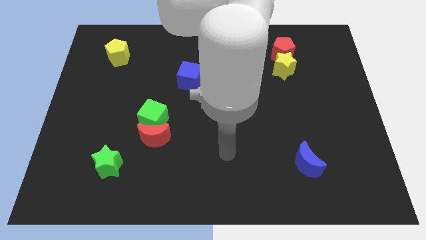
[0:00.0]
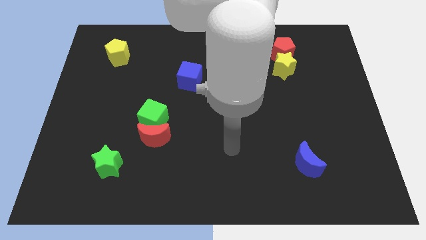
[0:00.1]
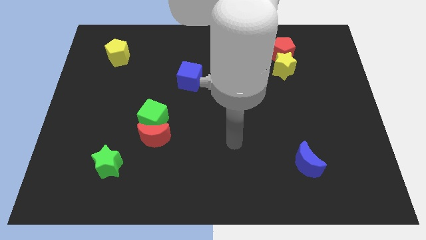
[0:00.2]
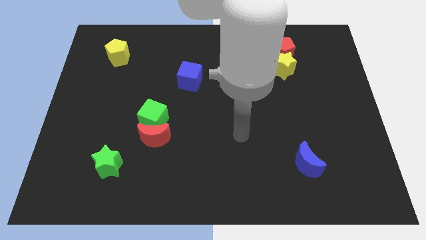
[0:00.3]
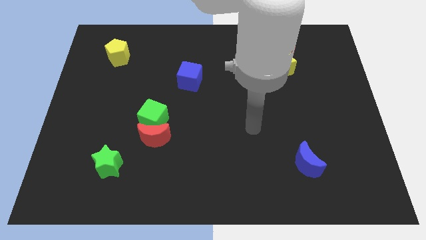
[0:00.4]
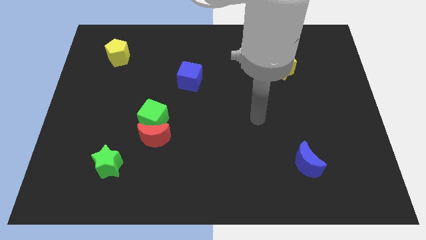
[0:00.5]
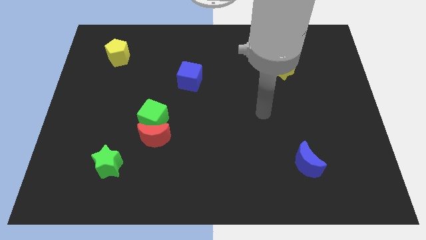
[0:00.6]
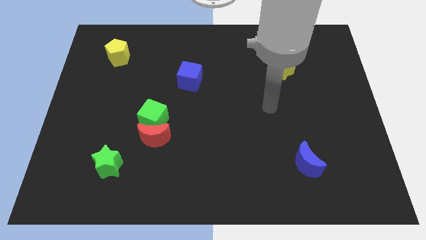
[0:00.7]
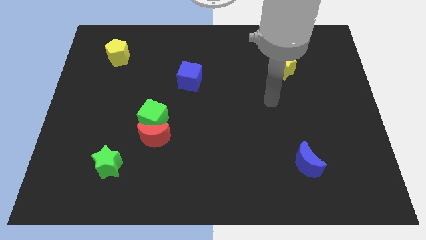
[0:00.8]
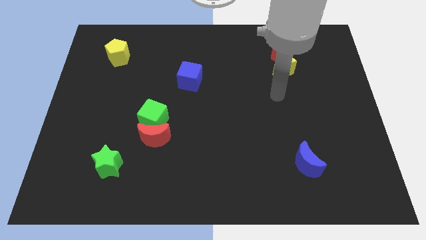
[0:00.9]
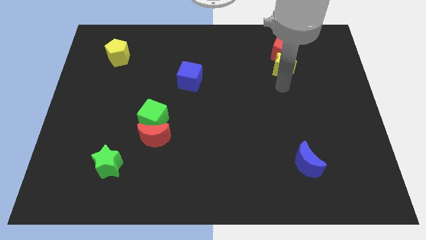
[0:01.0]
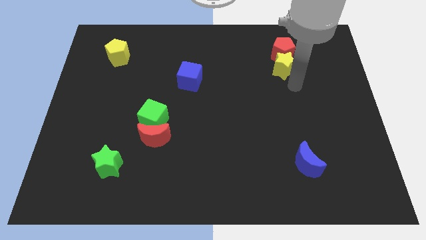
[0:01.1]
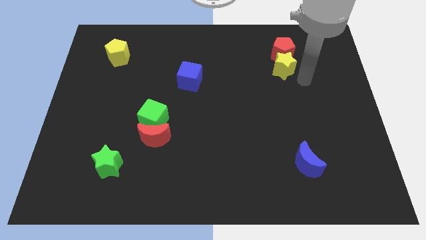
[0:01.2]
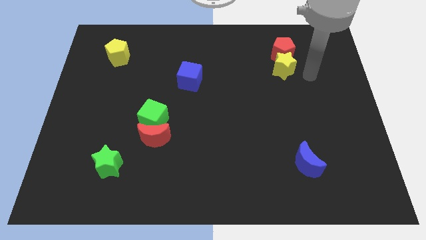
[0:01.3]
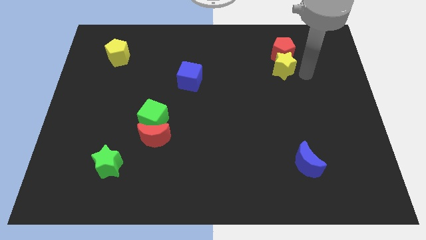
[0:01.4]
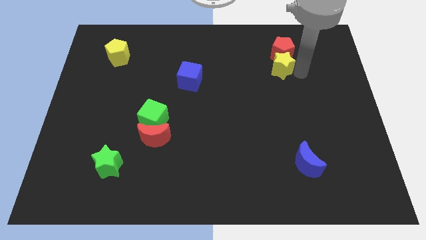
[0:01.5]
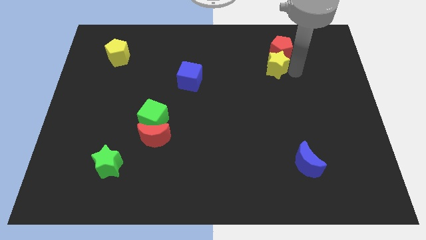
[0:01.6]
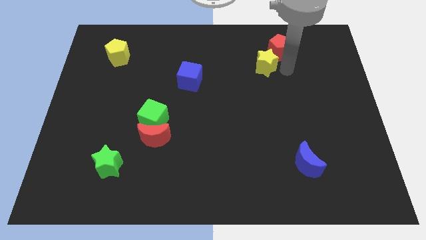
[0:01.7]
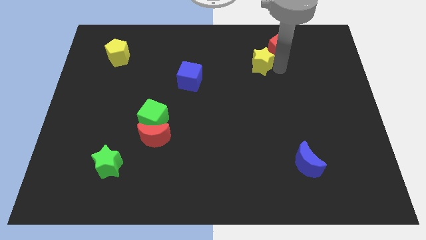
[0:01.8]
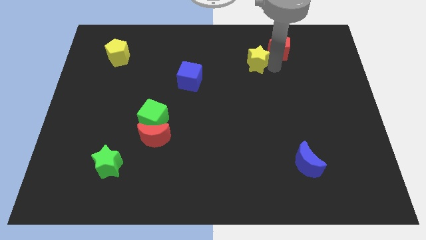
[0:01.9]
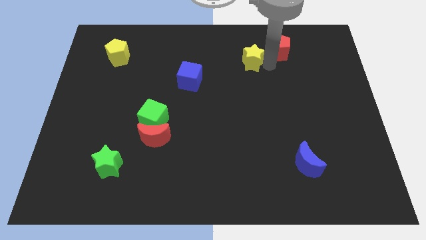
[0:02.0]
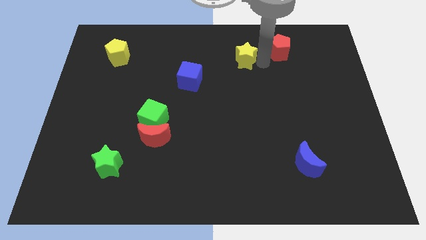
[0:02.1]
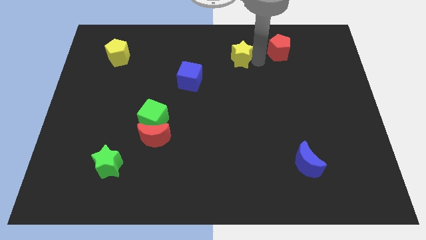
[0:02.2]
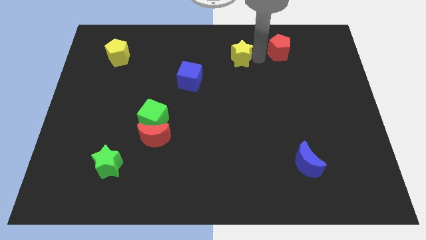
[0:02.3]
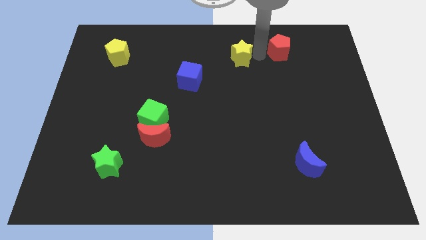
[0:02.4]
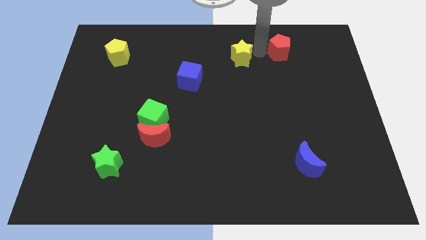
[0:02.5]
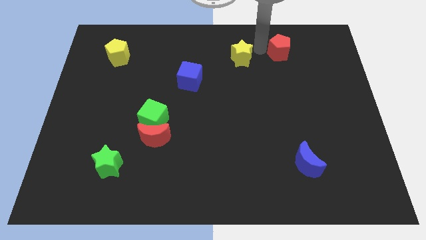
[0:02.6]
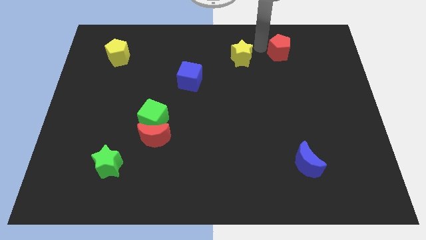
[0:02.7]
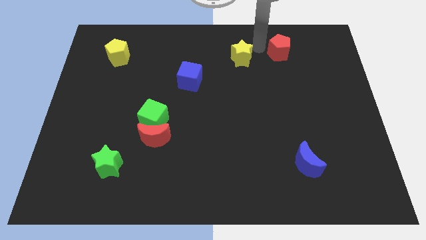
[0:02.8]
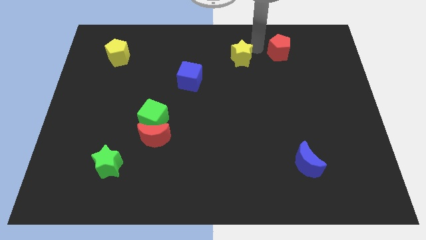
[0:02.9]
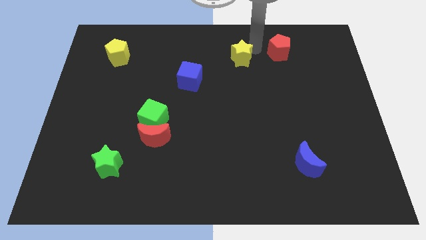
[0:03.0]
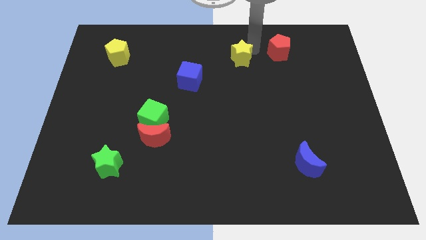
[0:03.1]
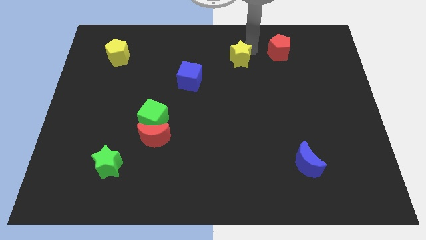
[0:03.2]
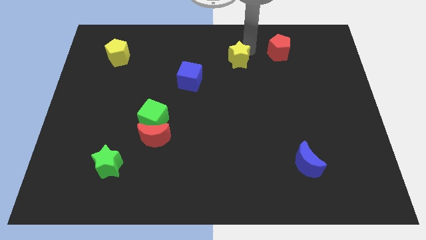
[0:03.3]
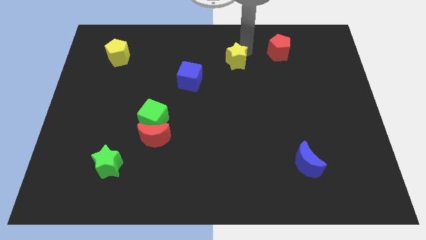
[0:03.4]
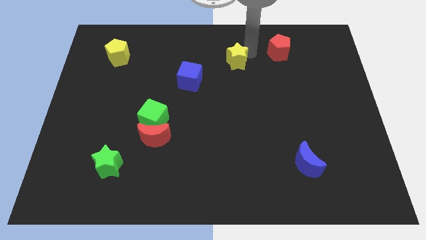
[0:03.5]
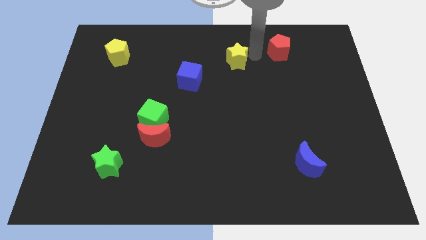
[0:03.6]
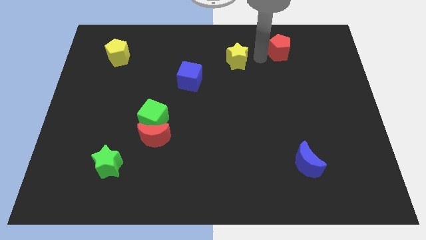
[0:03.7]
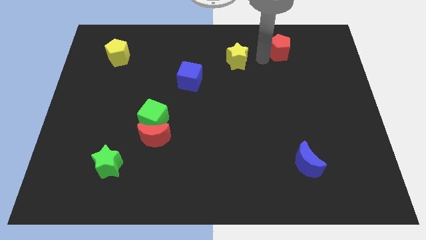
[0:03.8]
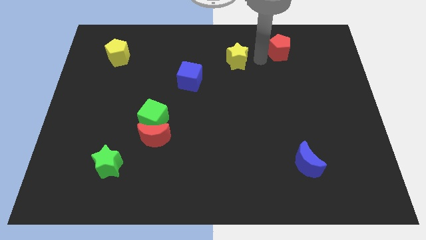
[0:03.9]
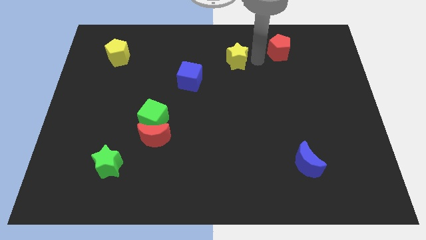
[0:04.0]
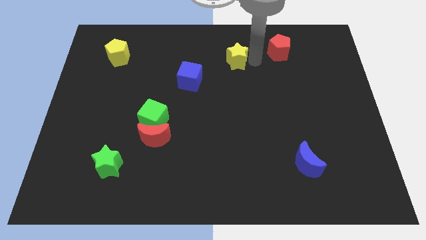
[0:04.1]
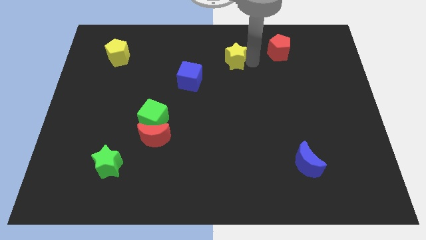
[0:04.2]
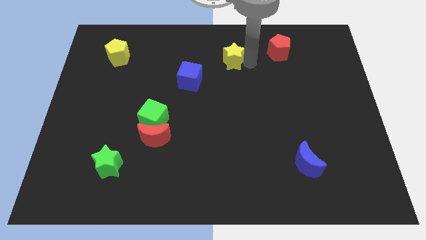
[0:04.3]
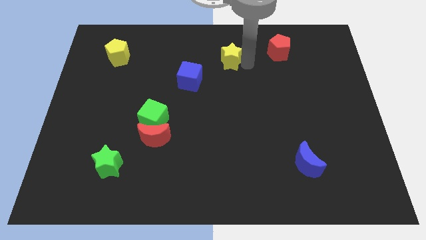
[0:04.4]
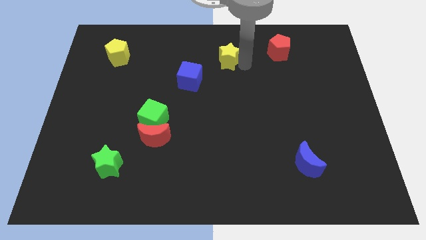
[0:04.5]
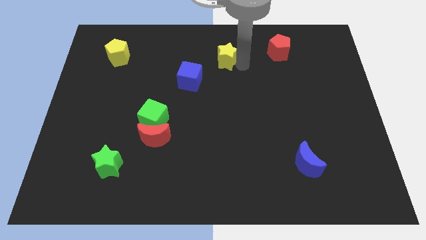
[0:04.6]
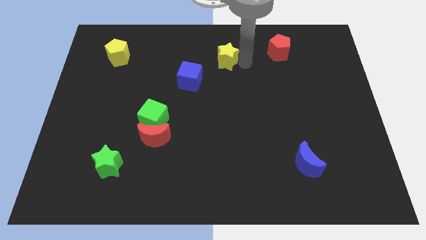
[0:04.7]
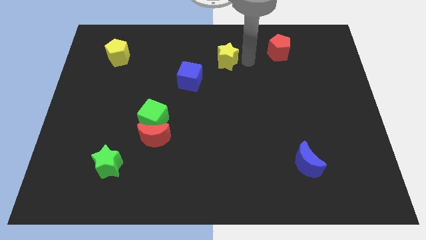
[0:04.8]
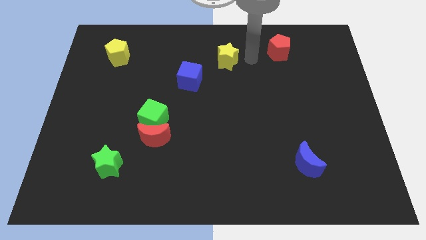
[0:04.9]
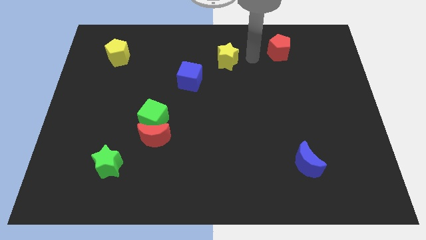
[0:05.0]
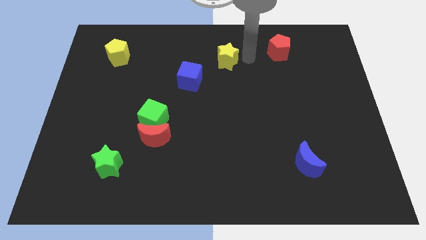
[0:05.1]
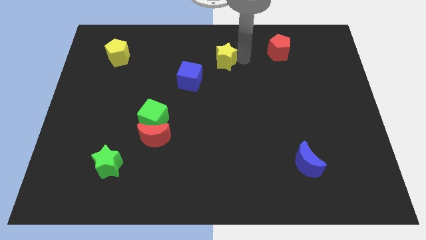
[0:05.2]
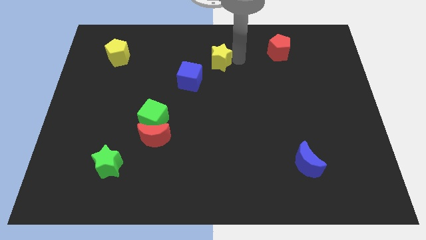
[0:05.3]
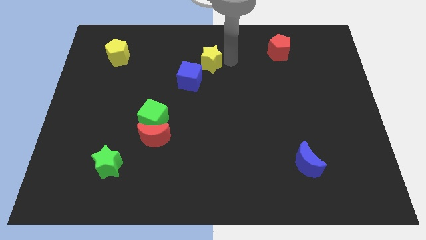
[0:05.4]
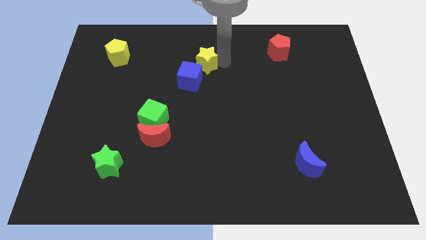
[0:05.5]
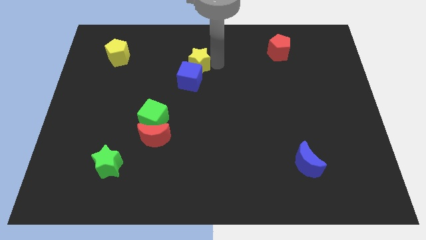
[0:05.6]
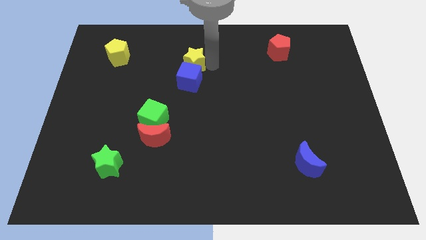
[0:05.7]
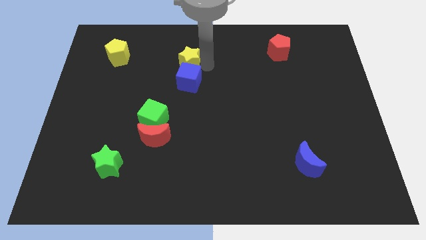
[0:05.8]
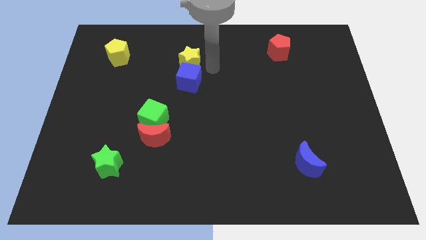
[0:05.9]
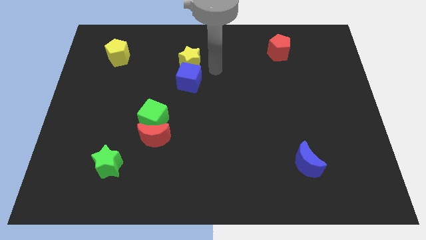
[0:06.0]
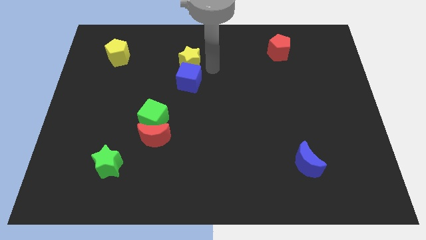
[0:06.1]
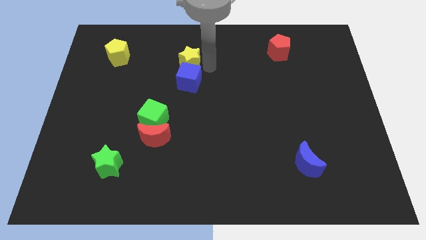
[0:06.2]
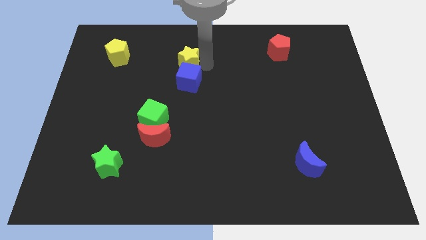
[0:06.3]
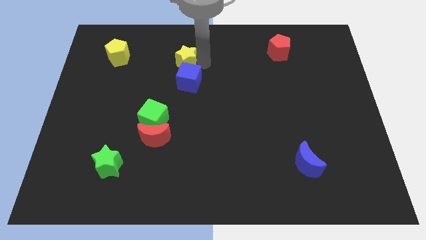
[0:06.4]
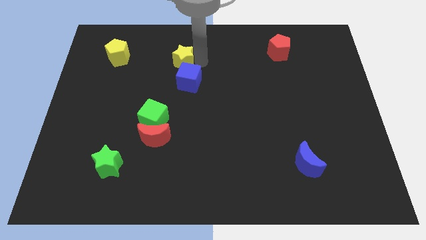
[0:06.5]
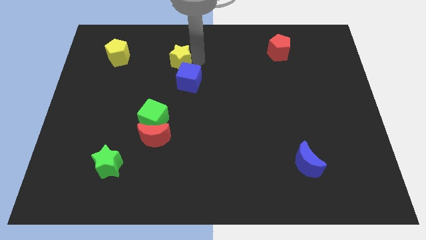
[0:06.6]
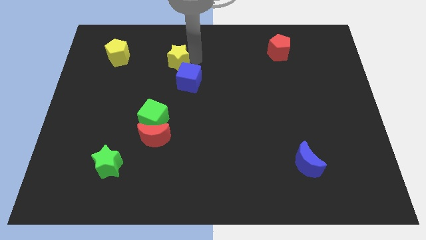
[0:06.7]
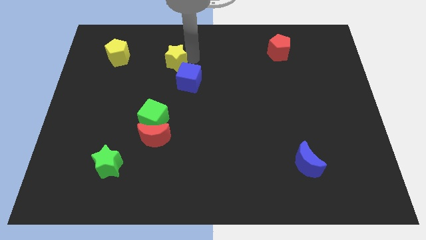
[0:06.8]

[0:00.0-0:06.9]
move the yellow star right of the yellow pentagon
